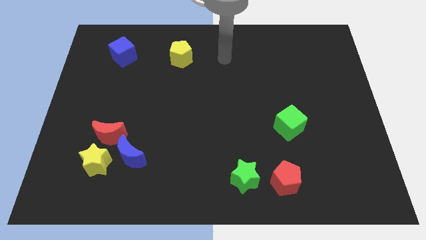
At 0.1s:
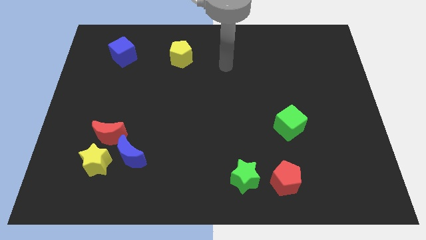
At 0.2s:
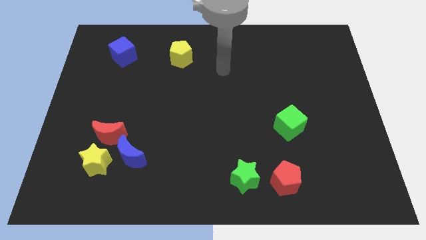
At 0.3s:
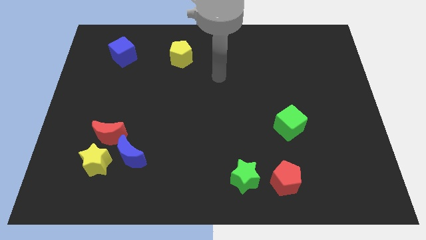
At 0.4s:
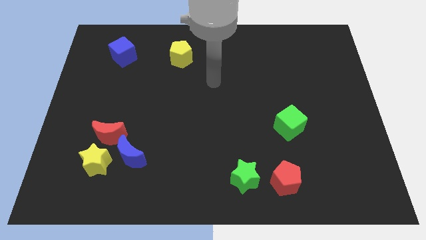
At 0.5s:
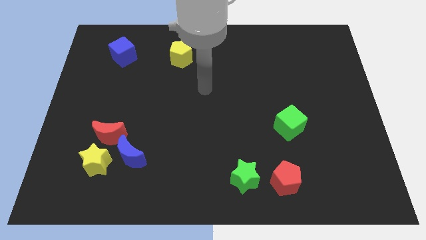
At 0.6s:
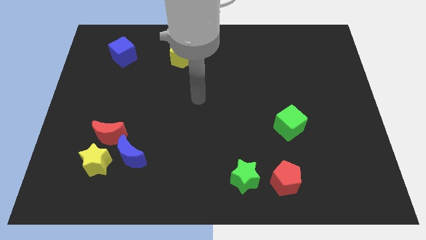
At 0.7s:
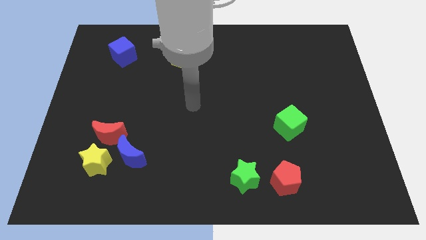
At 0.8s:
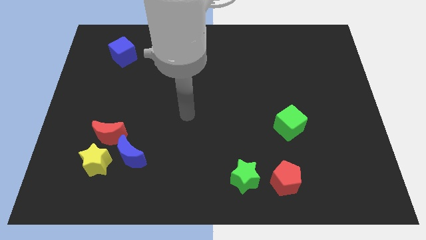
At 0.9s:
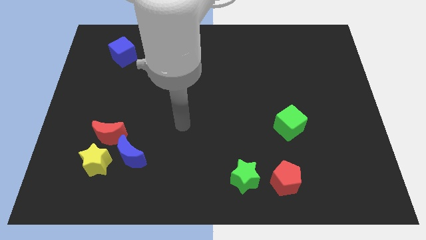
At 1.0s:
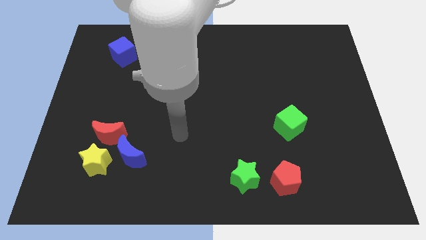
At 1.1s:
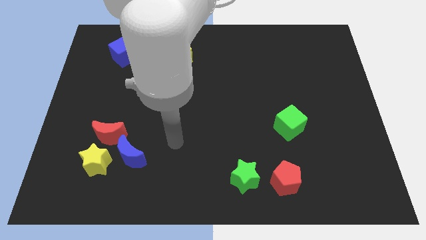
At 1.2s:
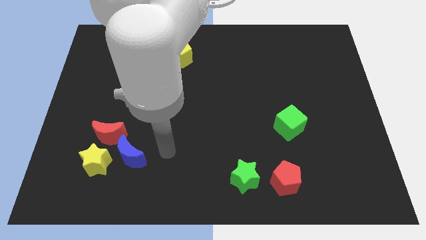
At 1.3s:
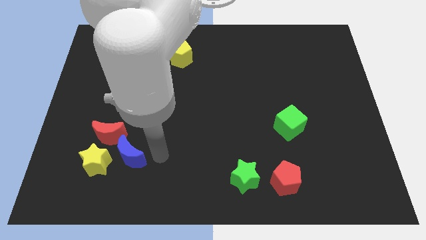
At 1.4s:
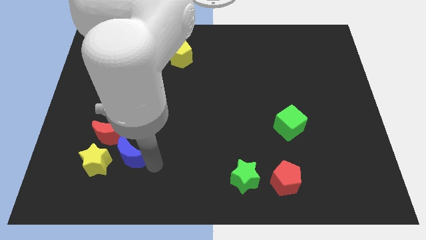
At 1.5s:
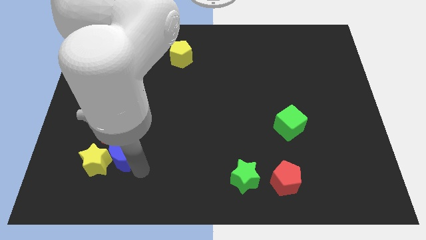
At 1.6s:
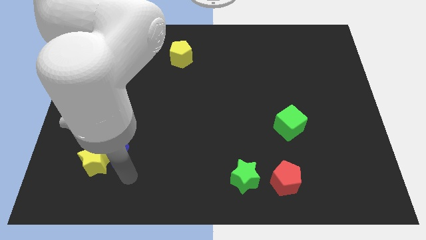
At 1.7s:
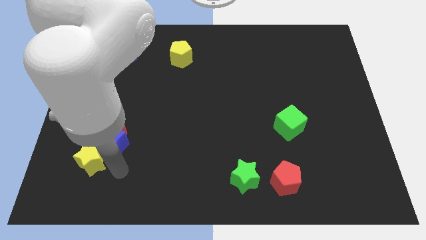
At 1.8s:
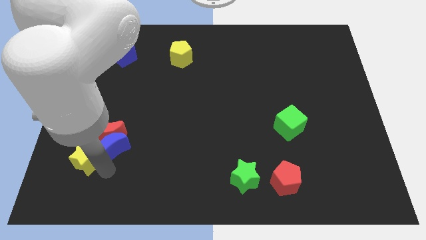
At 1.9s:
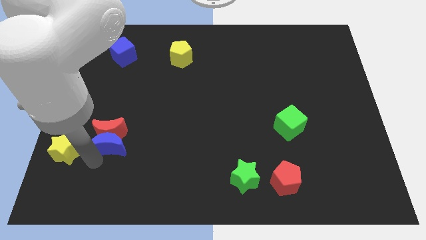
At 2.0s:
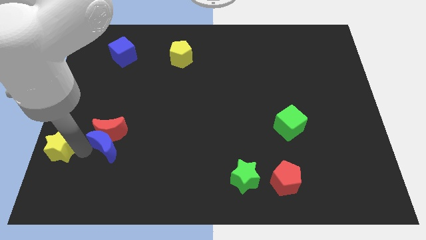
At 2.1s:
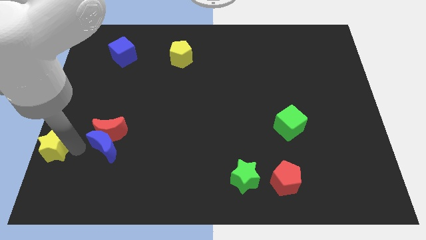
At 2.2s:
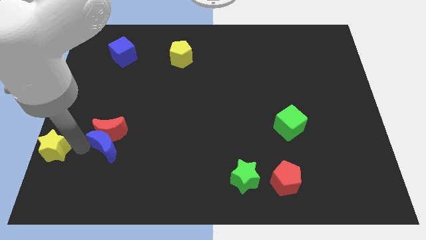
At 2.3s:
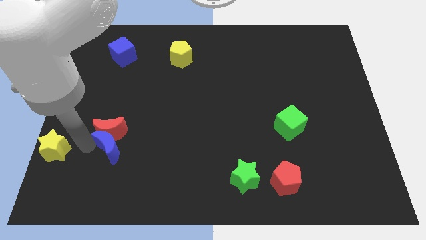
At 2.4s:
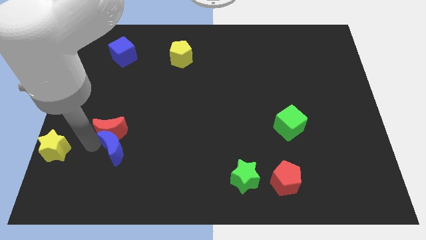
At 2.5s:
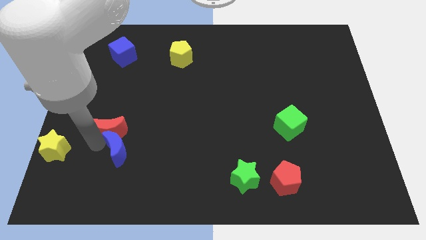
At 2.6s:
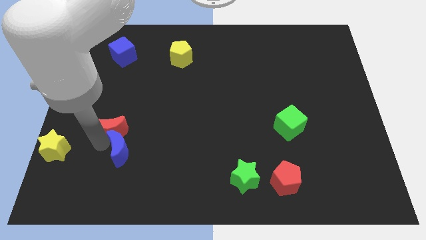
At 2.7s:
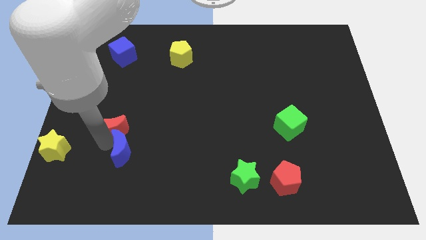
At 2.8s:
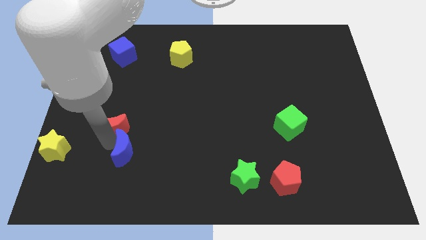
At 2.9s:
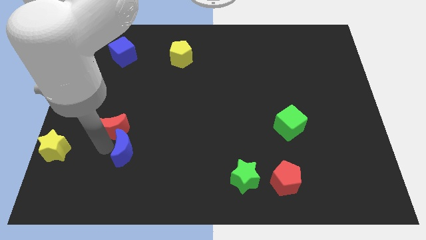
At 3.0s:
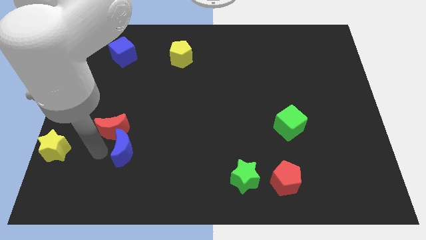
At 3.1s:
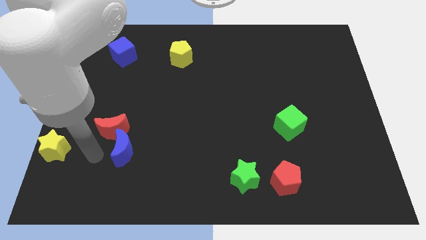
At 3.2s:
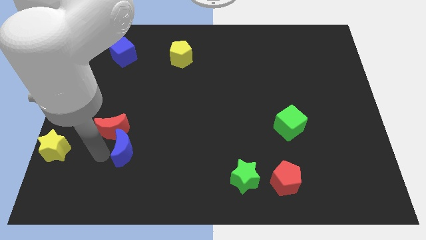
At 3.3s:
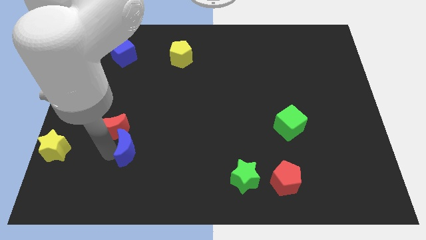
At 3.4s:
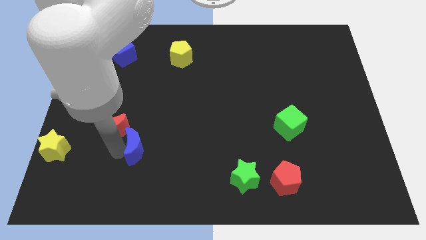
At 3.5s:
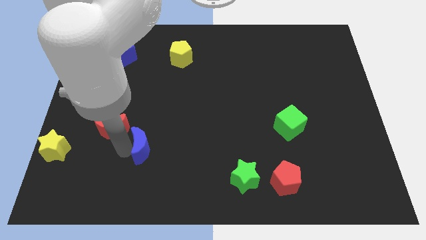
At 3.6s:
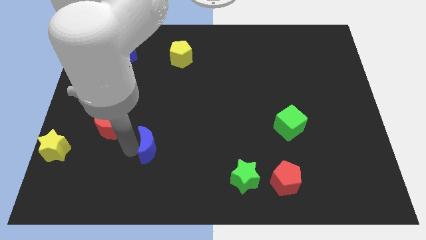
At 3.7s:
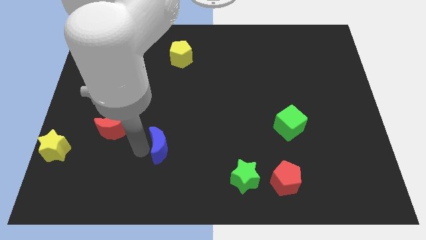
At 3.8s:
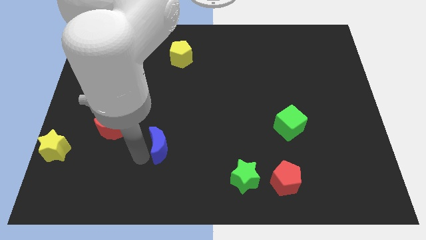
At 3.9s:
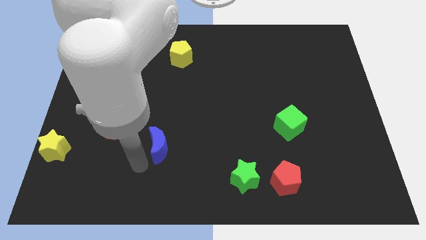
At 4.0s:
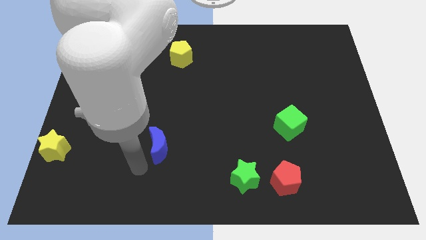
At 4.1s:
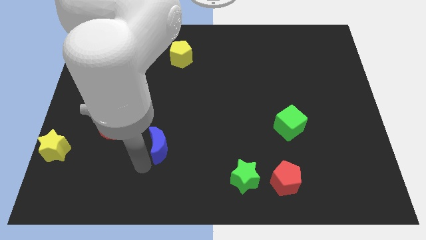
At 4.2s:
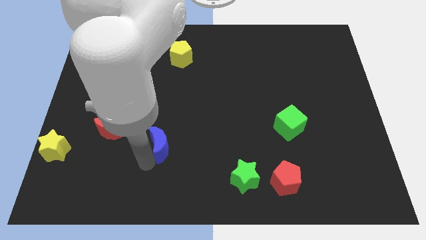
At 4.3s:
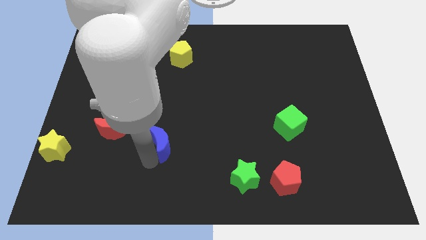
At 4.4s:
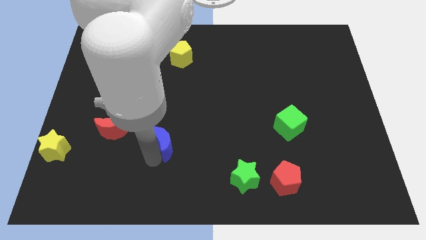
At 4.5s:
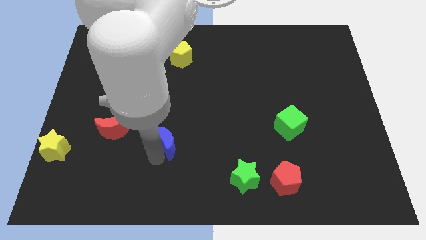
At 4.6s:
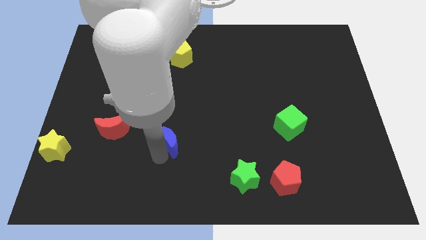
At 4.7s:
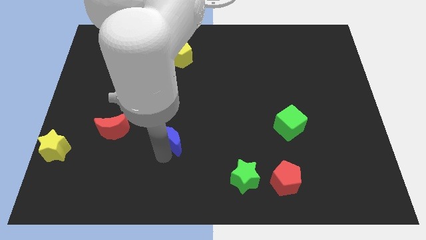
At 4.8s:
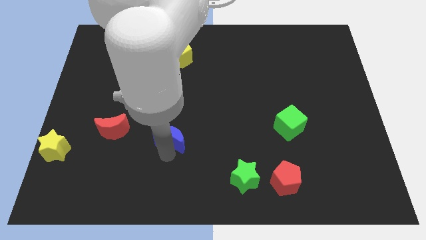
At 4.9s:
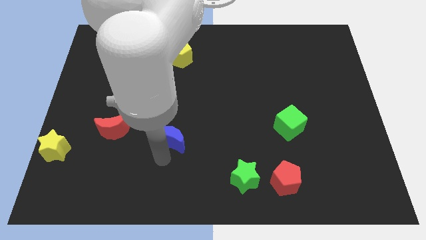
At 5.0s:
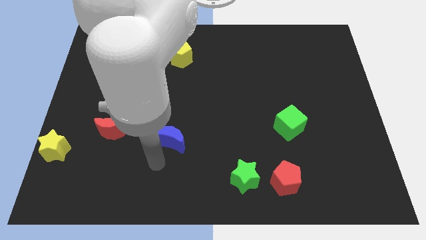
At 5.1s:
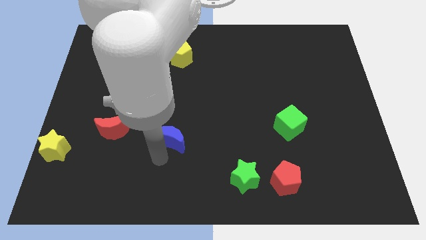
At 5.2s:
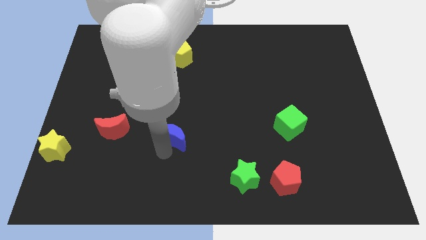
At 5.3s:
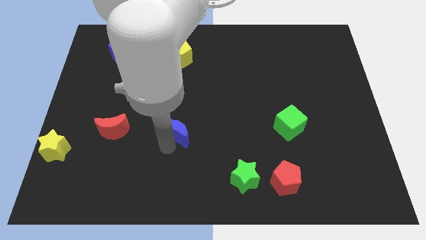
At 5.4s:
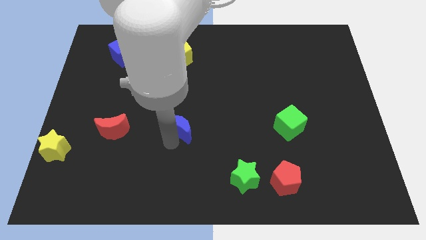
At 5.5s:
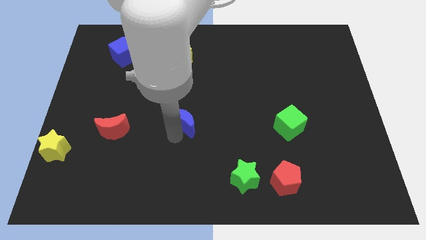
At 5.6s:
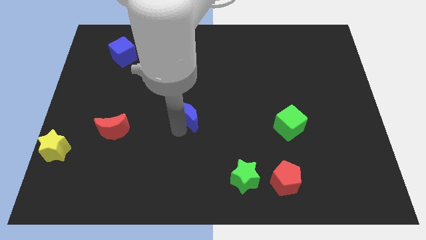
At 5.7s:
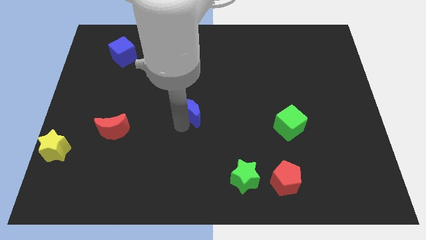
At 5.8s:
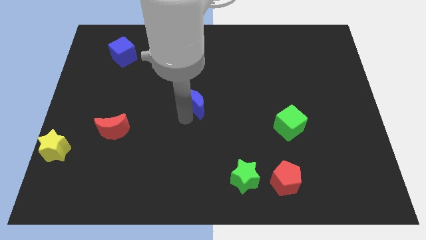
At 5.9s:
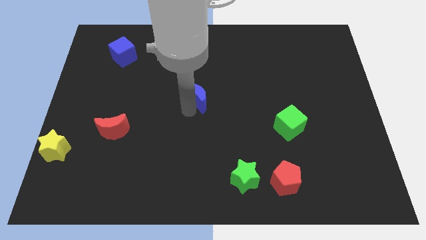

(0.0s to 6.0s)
move the blue moon diagonally upwards and to the right

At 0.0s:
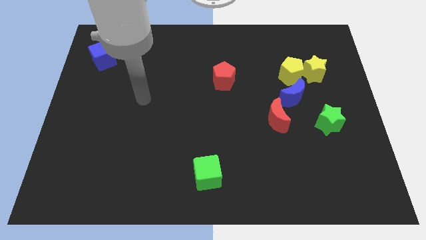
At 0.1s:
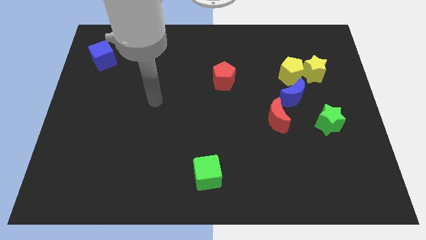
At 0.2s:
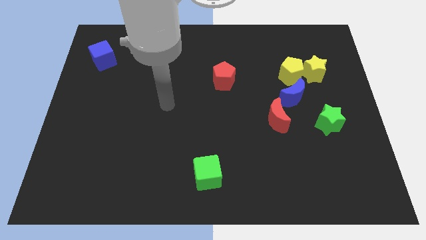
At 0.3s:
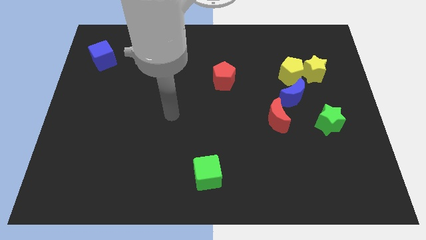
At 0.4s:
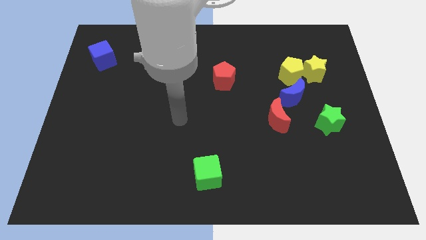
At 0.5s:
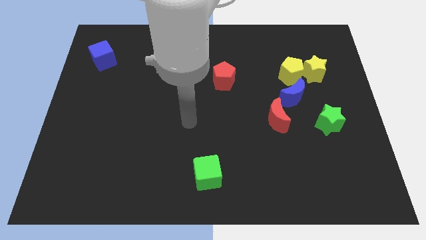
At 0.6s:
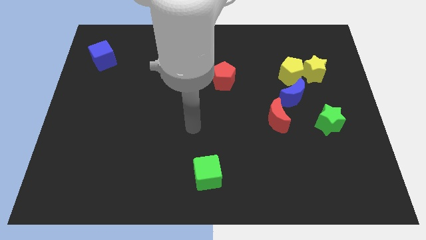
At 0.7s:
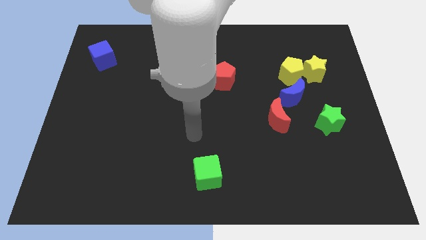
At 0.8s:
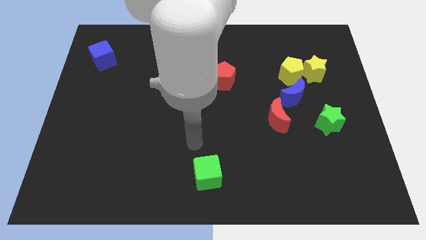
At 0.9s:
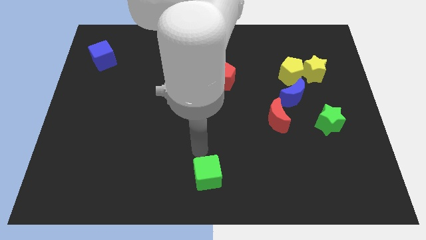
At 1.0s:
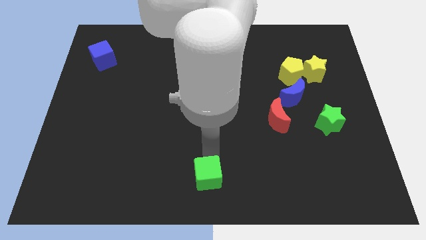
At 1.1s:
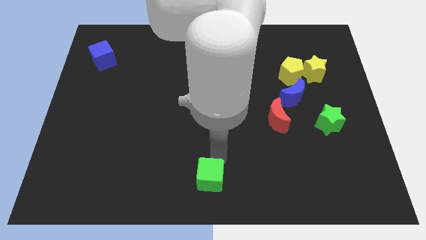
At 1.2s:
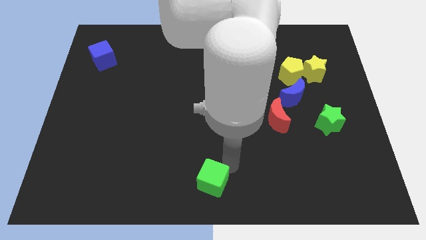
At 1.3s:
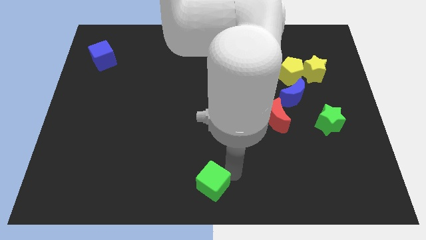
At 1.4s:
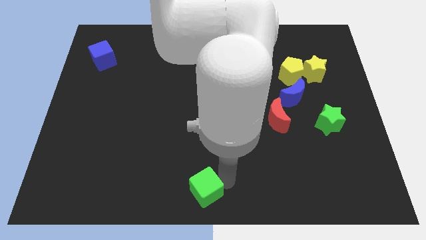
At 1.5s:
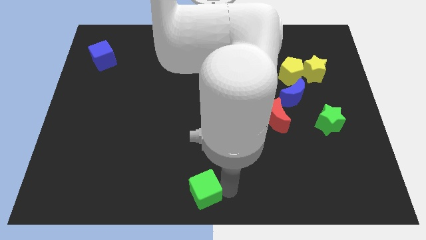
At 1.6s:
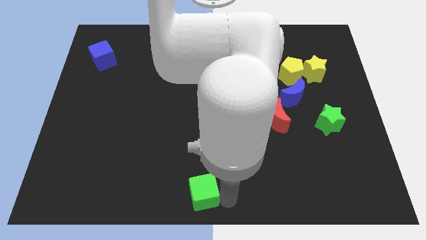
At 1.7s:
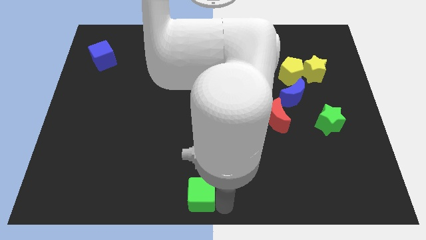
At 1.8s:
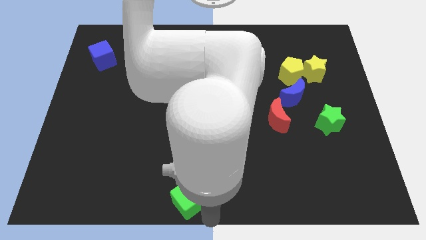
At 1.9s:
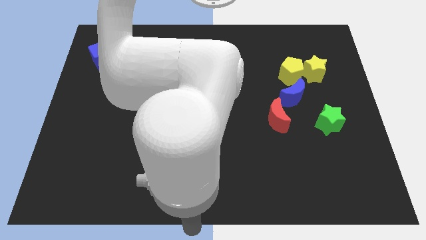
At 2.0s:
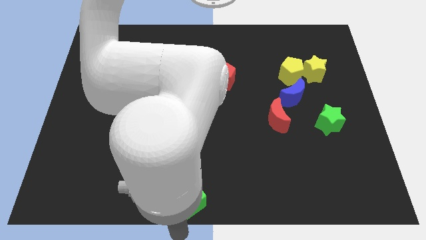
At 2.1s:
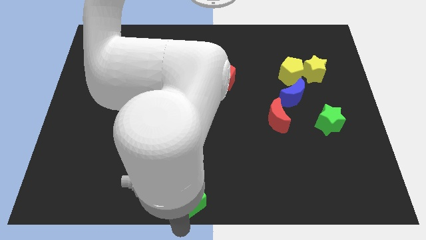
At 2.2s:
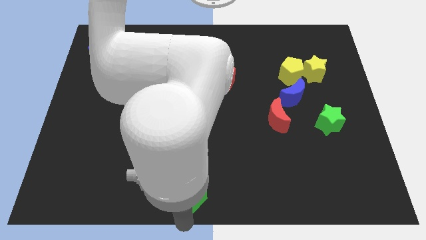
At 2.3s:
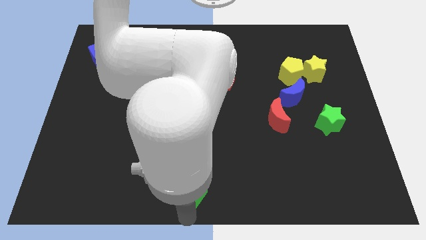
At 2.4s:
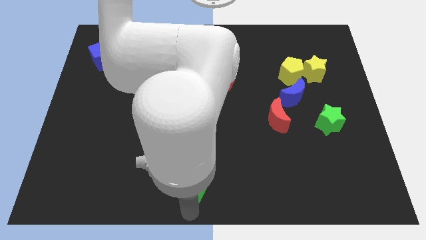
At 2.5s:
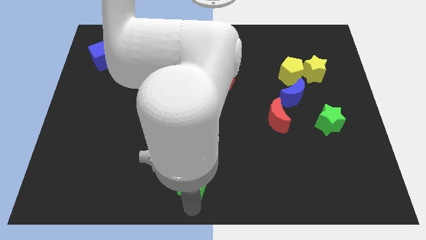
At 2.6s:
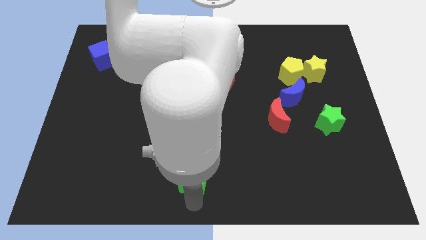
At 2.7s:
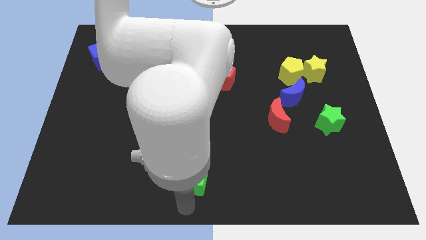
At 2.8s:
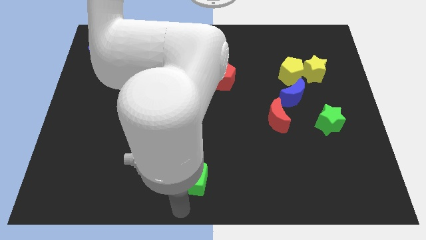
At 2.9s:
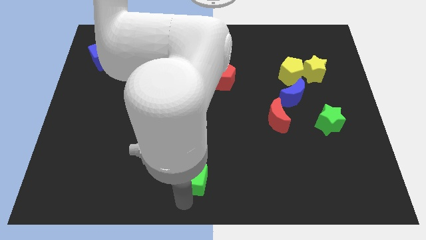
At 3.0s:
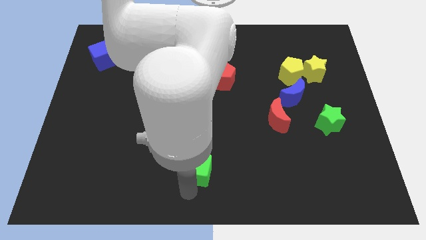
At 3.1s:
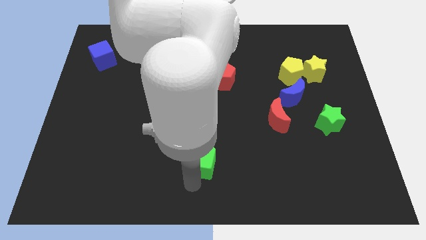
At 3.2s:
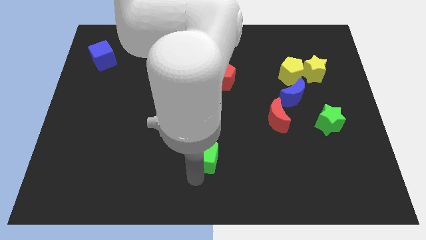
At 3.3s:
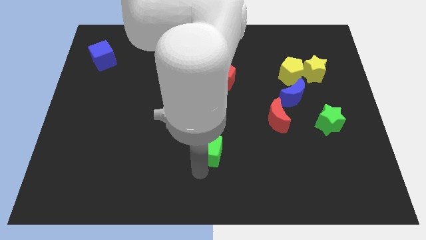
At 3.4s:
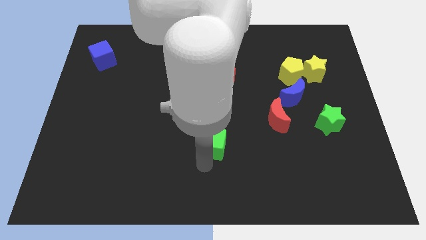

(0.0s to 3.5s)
push the green cube upwards somewhat
